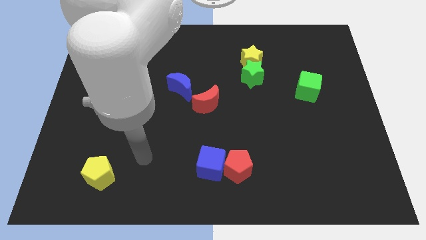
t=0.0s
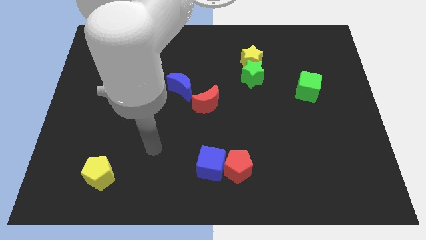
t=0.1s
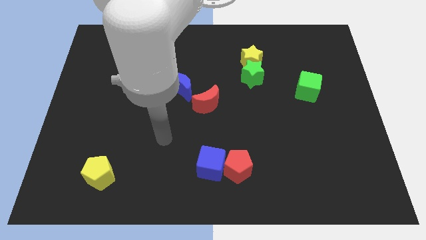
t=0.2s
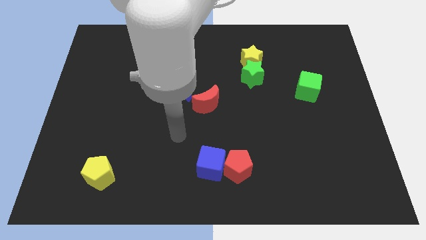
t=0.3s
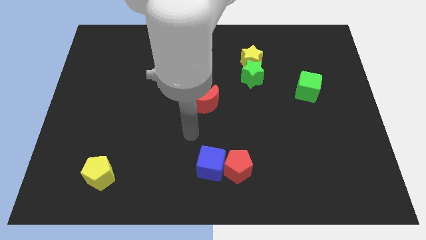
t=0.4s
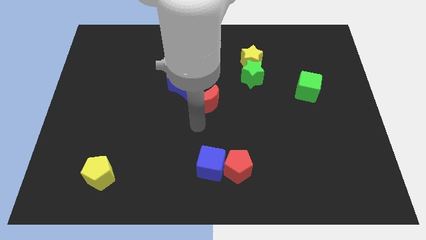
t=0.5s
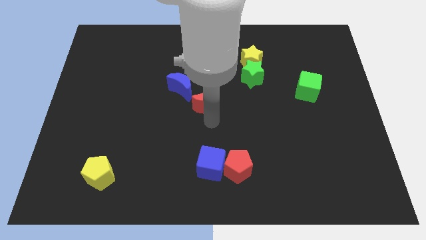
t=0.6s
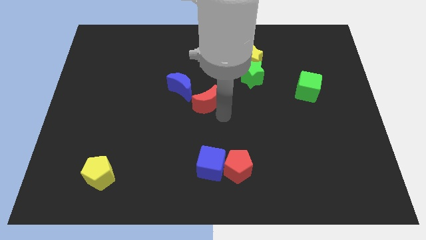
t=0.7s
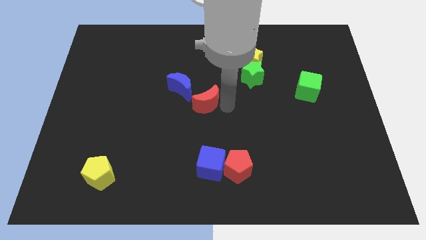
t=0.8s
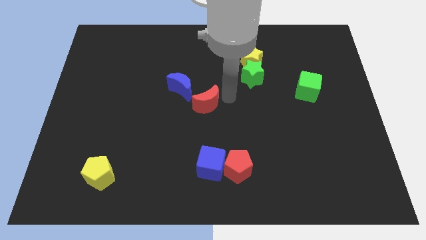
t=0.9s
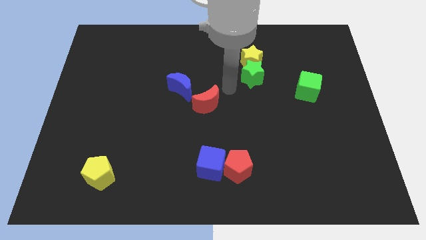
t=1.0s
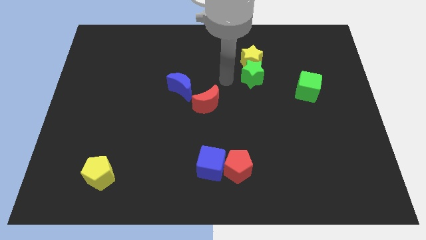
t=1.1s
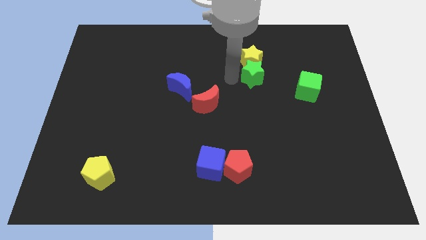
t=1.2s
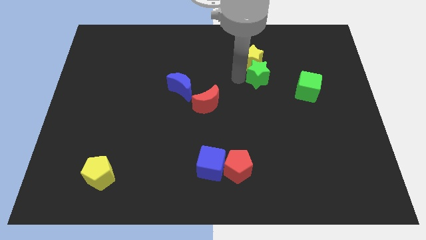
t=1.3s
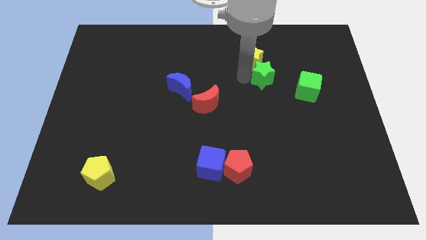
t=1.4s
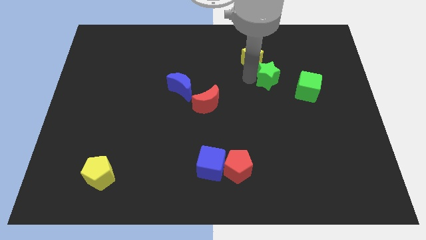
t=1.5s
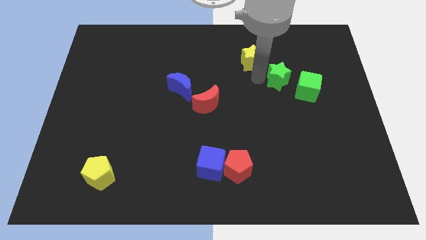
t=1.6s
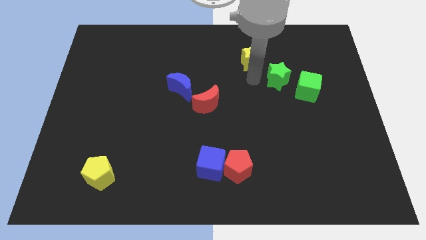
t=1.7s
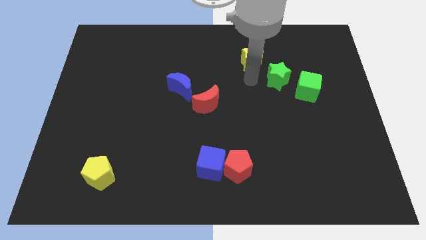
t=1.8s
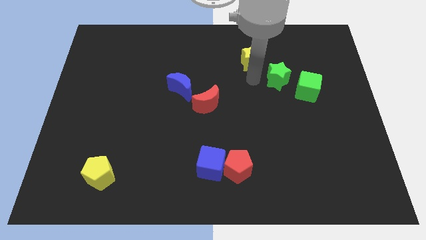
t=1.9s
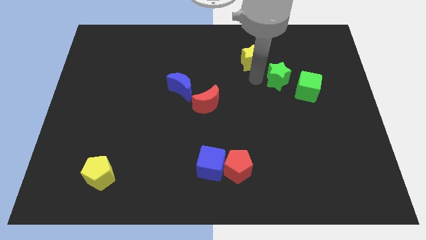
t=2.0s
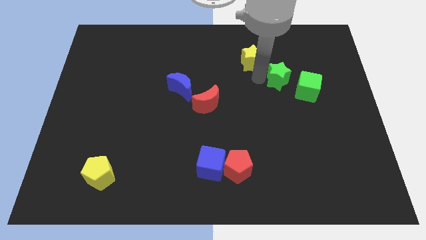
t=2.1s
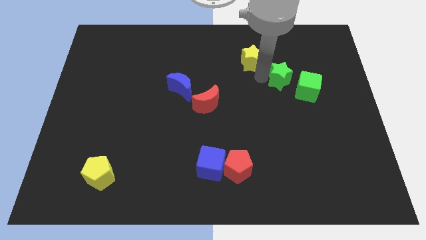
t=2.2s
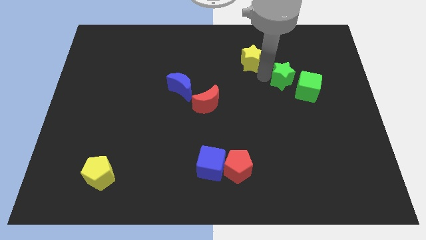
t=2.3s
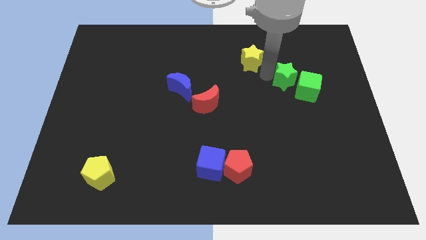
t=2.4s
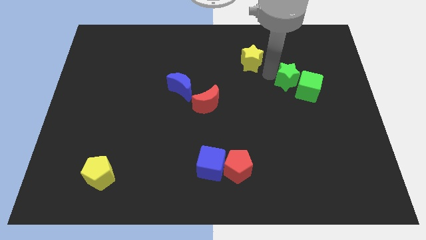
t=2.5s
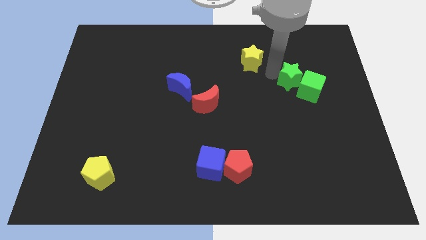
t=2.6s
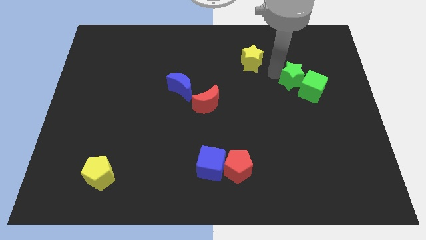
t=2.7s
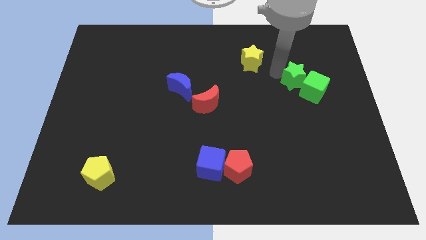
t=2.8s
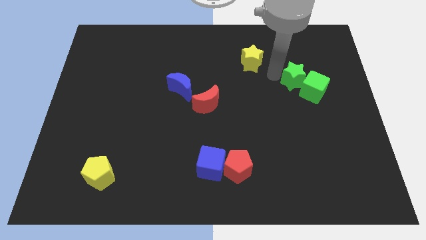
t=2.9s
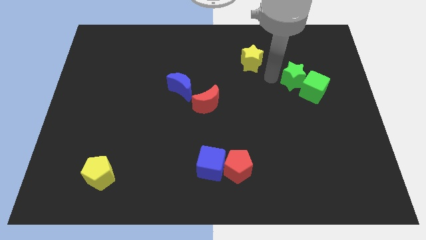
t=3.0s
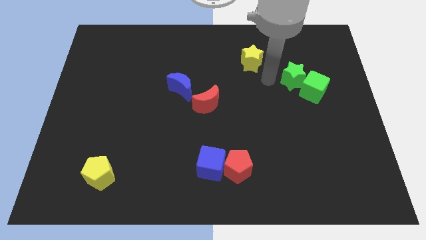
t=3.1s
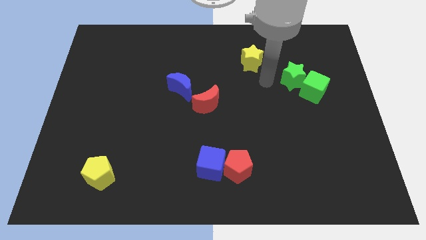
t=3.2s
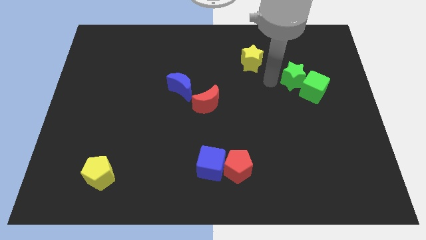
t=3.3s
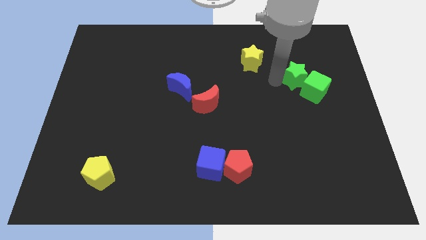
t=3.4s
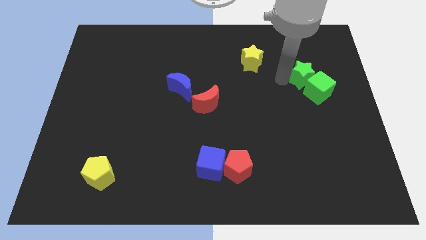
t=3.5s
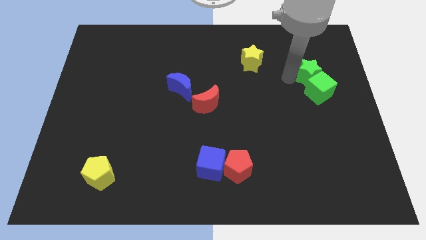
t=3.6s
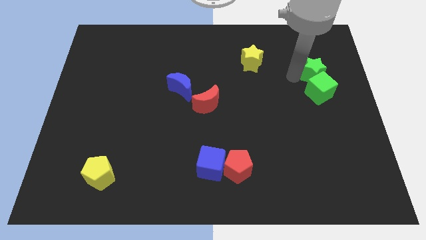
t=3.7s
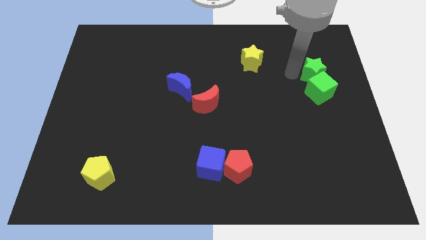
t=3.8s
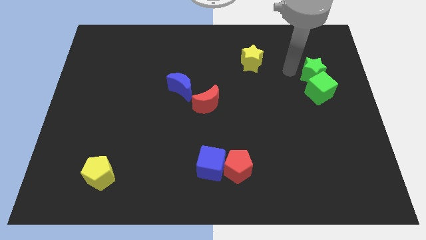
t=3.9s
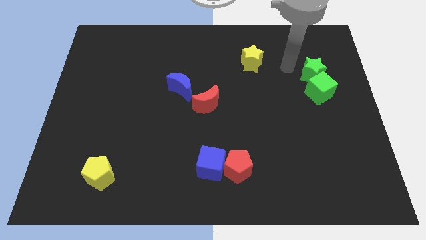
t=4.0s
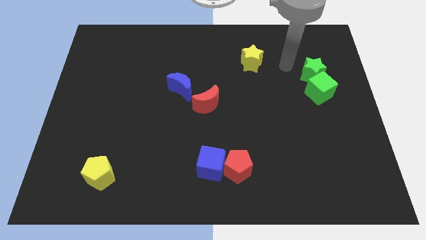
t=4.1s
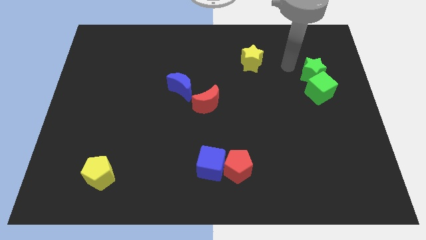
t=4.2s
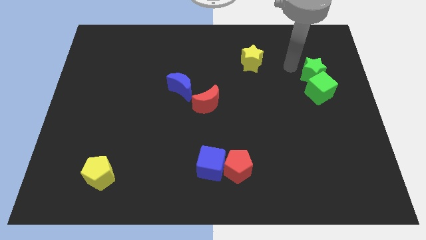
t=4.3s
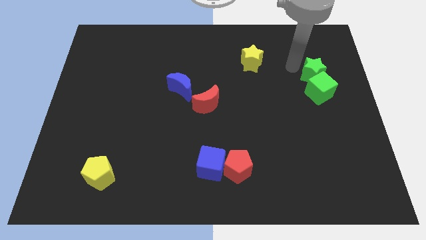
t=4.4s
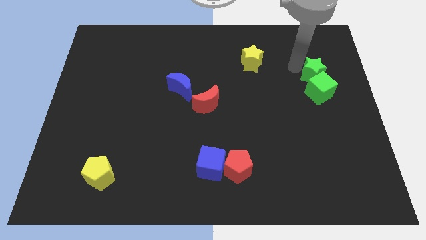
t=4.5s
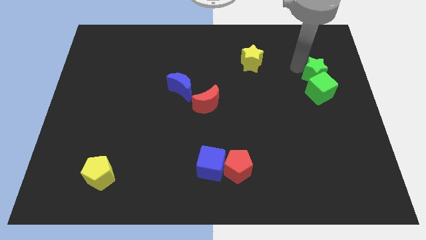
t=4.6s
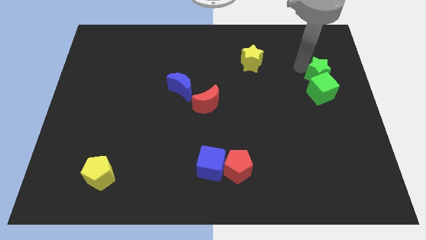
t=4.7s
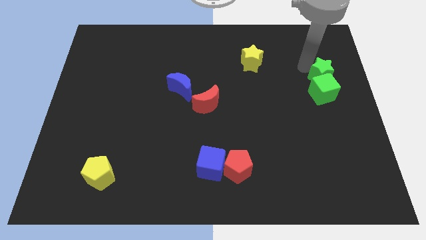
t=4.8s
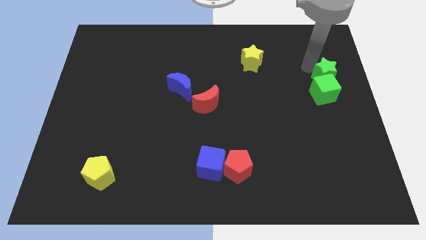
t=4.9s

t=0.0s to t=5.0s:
put the green star to the center right

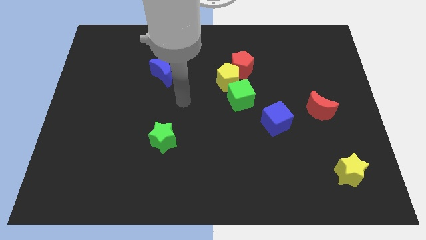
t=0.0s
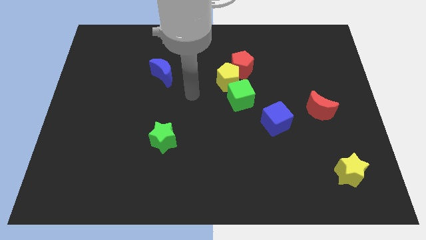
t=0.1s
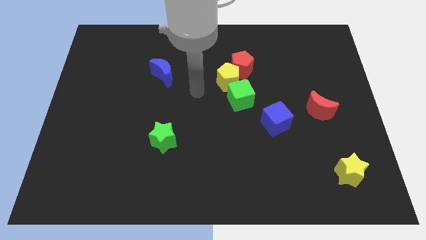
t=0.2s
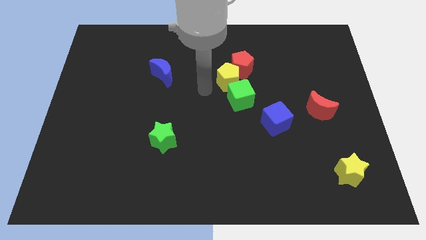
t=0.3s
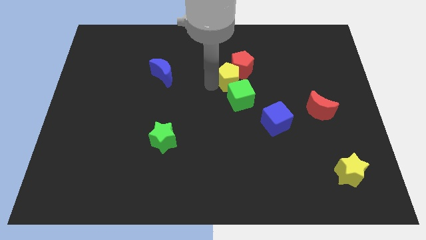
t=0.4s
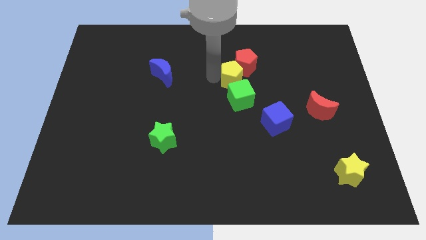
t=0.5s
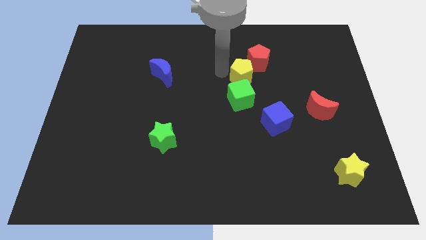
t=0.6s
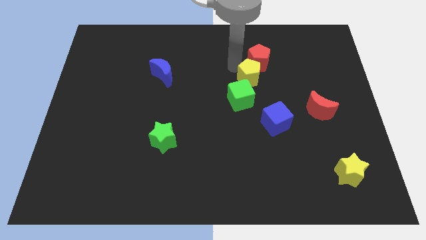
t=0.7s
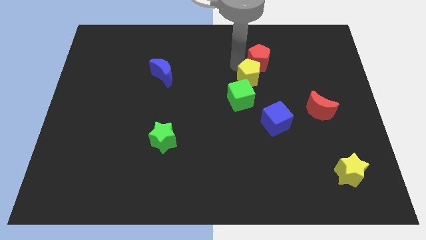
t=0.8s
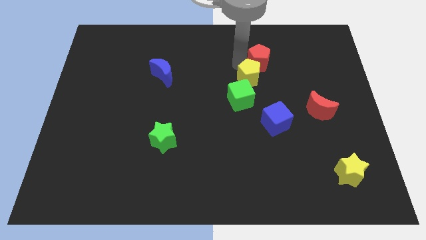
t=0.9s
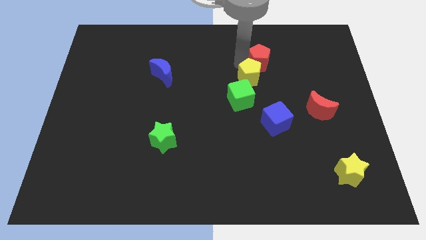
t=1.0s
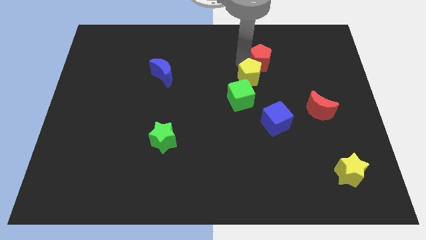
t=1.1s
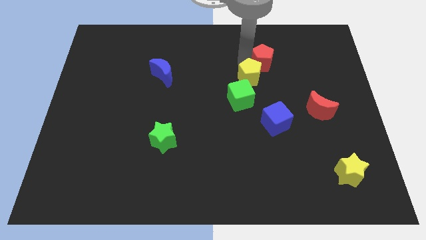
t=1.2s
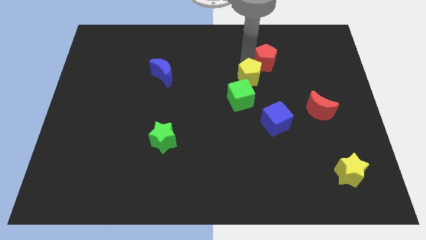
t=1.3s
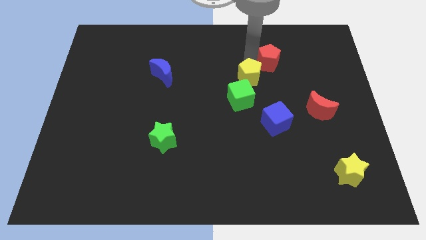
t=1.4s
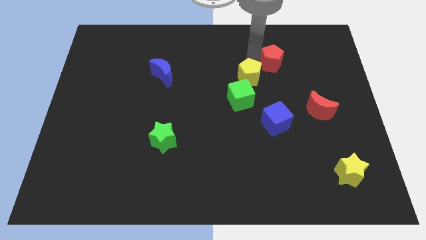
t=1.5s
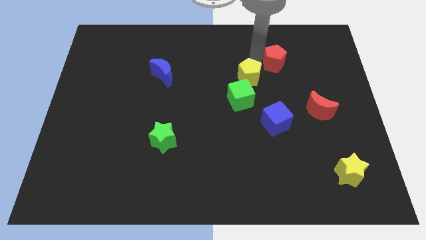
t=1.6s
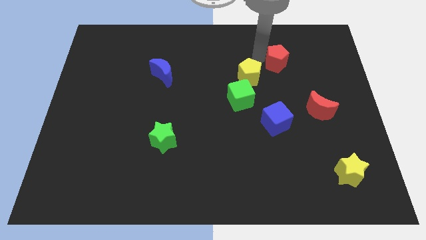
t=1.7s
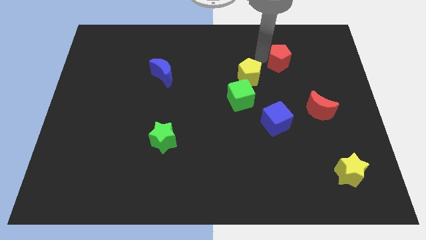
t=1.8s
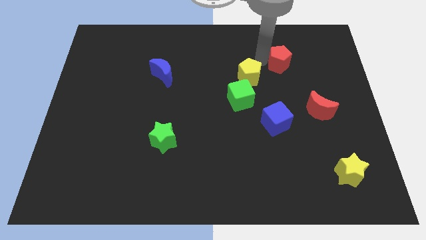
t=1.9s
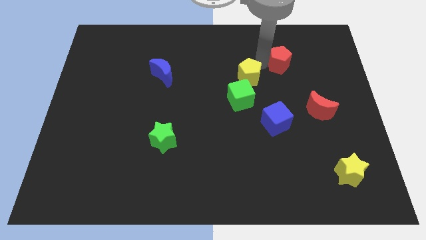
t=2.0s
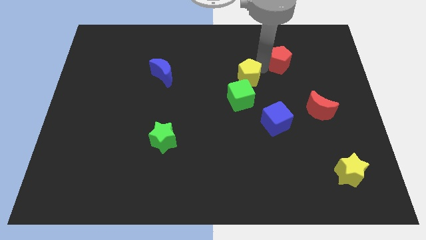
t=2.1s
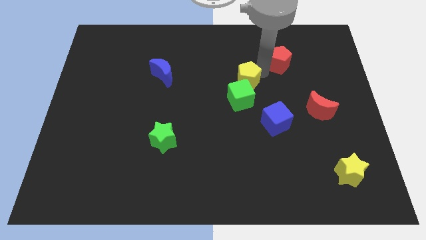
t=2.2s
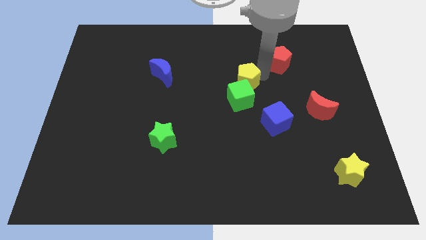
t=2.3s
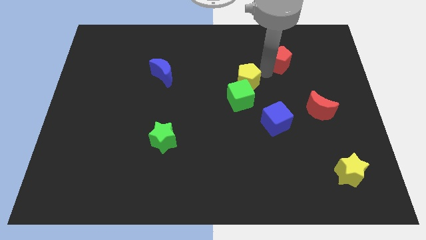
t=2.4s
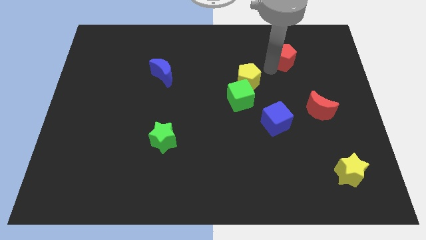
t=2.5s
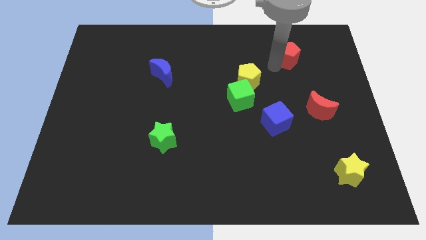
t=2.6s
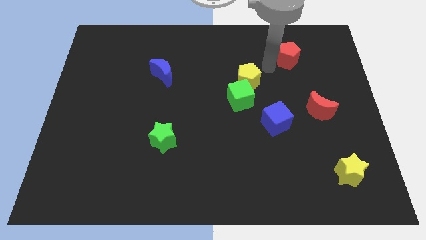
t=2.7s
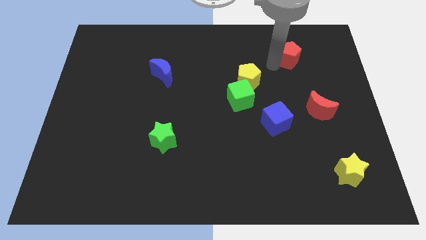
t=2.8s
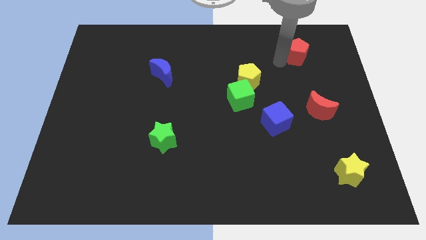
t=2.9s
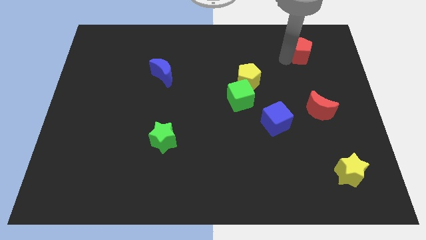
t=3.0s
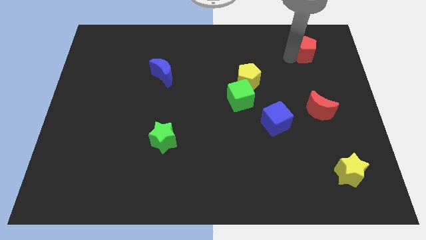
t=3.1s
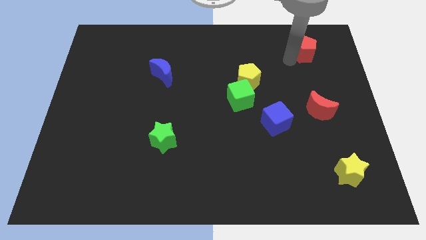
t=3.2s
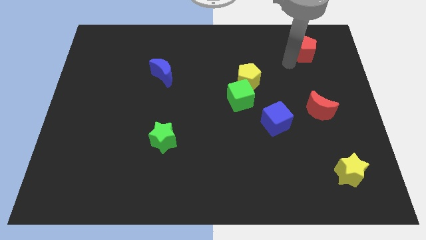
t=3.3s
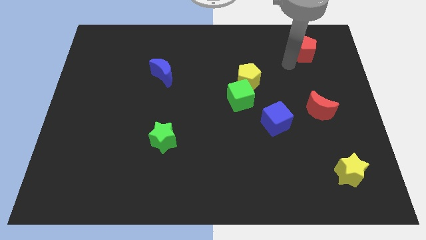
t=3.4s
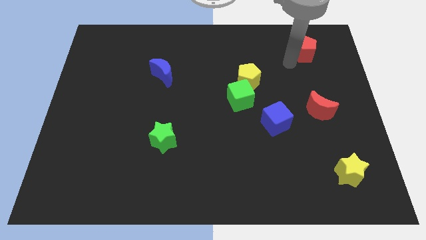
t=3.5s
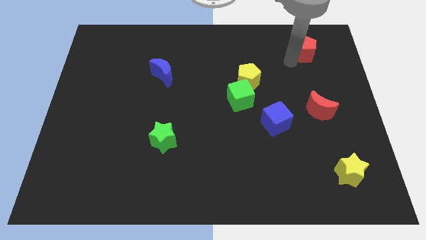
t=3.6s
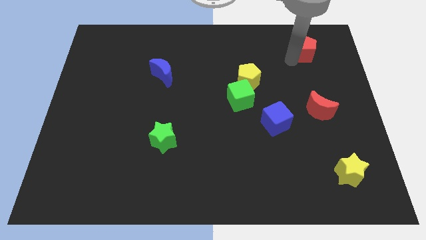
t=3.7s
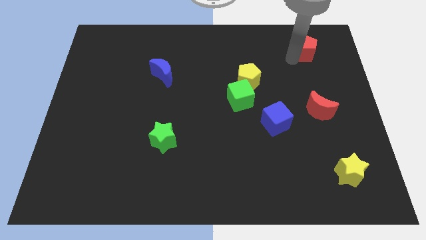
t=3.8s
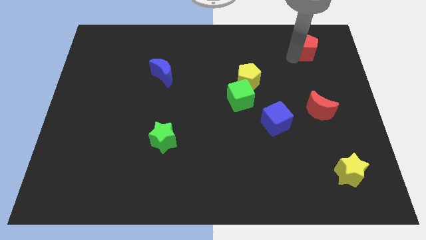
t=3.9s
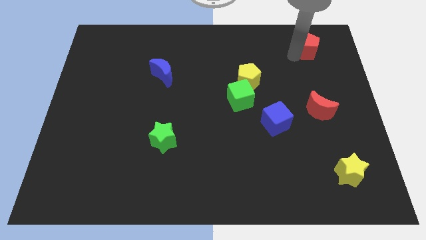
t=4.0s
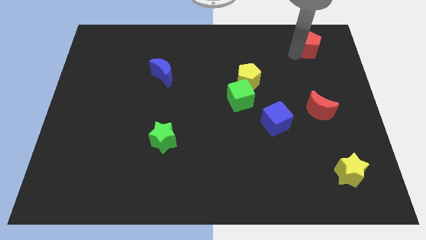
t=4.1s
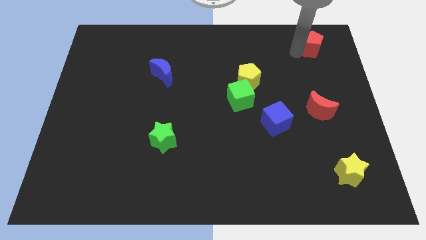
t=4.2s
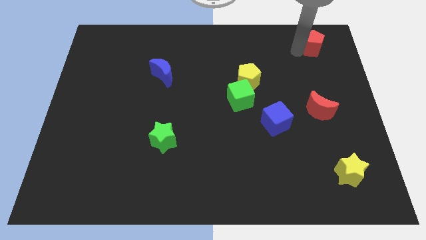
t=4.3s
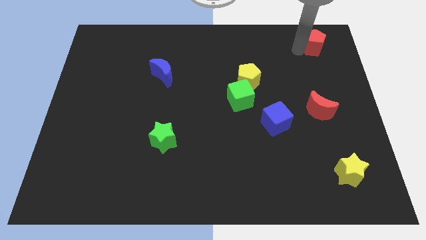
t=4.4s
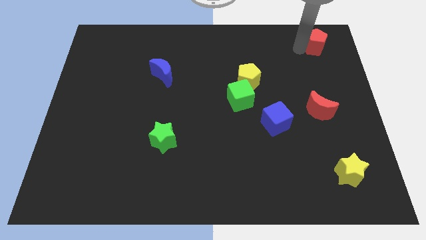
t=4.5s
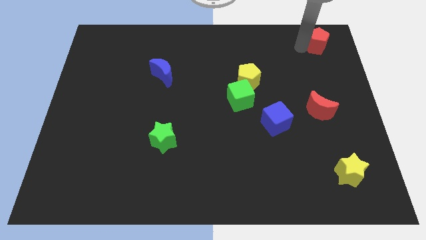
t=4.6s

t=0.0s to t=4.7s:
push the red pentagon to the top right corner
